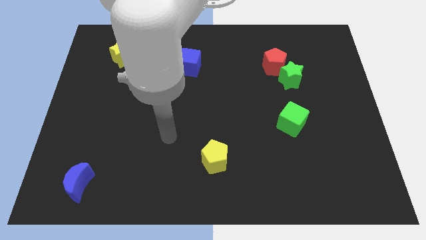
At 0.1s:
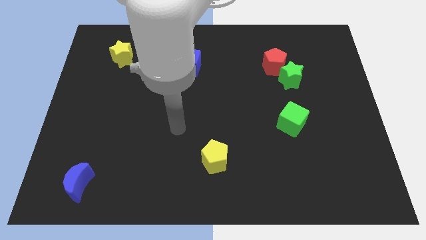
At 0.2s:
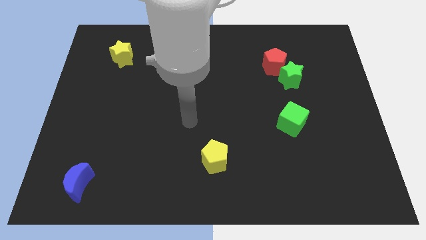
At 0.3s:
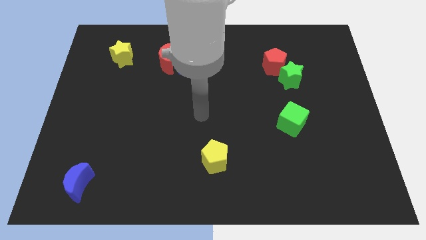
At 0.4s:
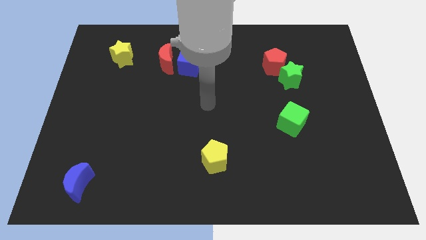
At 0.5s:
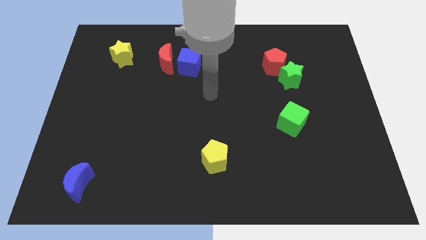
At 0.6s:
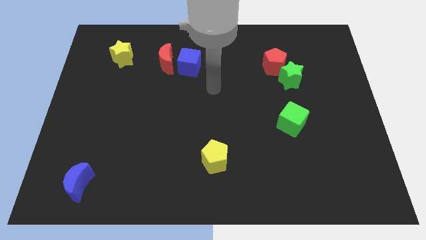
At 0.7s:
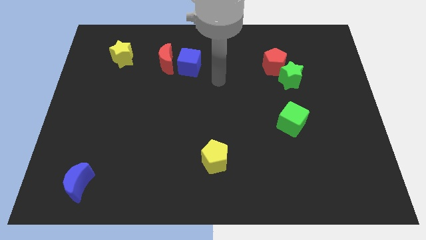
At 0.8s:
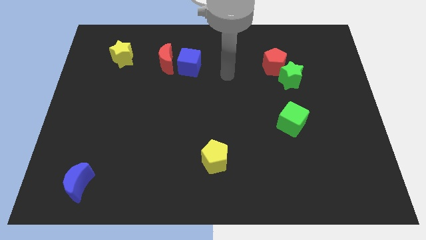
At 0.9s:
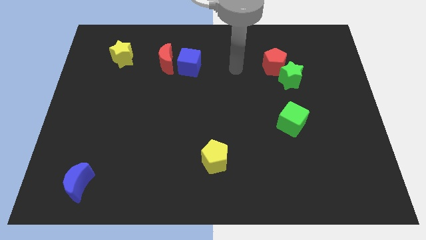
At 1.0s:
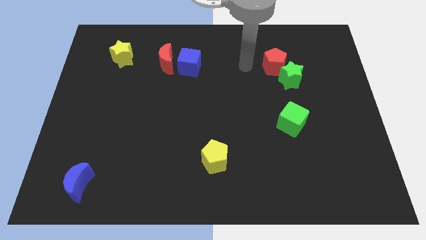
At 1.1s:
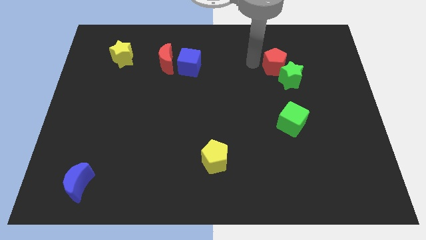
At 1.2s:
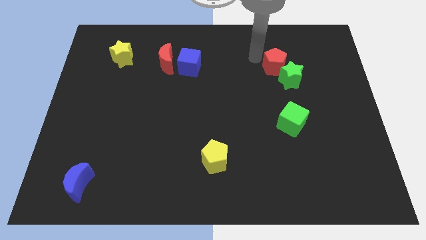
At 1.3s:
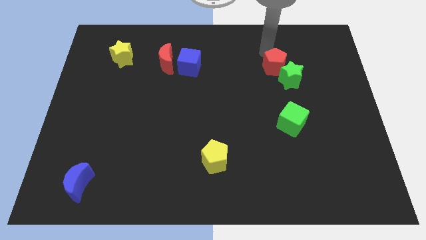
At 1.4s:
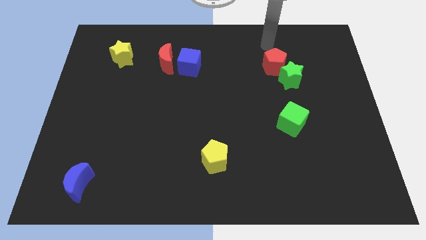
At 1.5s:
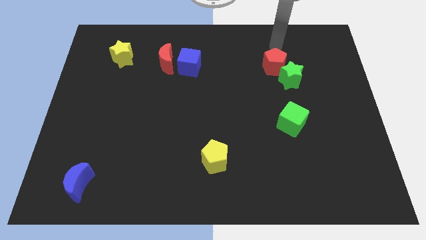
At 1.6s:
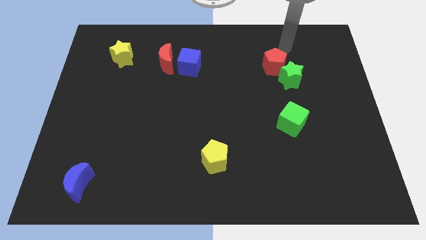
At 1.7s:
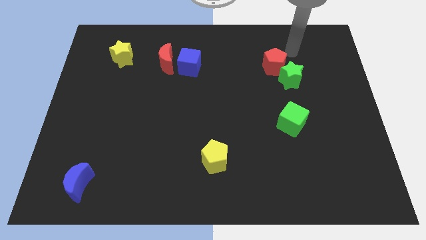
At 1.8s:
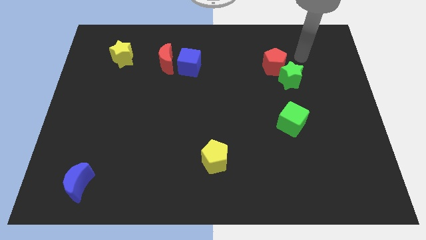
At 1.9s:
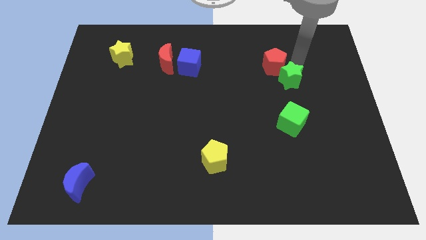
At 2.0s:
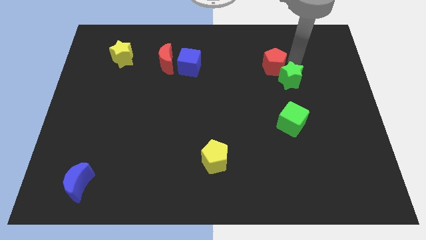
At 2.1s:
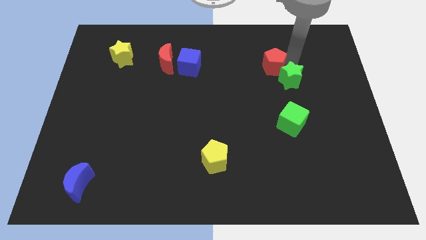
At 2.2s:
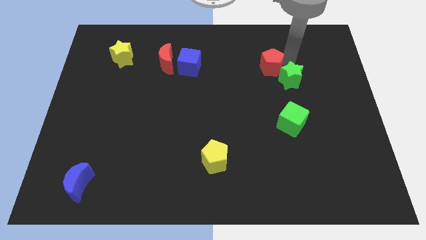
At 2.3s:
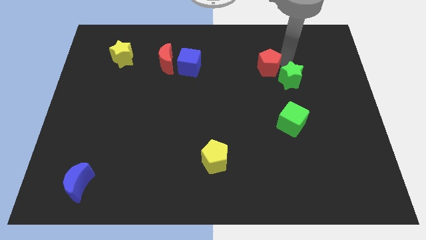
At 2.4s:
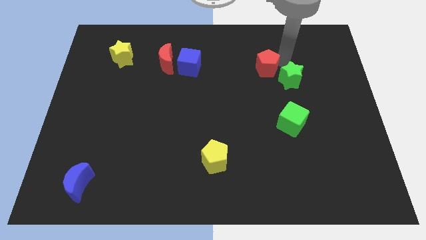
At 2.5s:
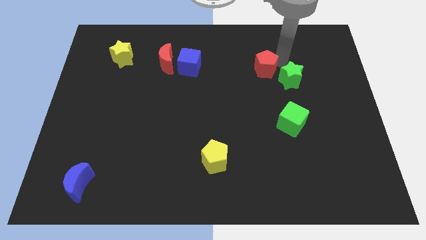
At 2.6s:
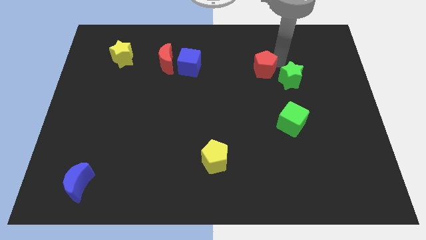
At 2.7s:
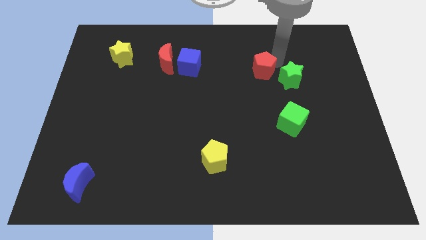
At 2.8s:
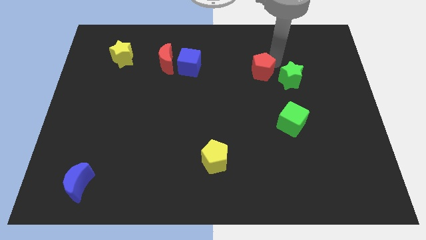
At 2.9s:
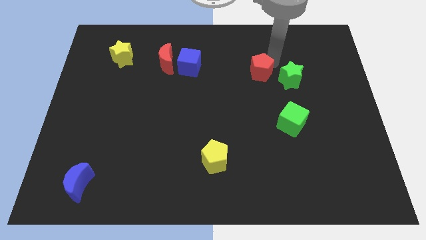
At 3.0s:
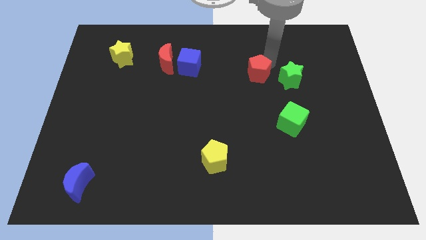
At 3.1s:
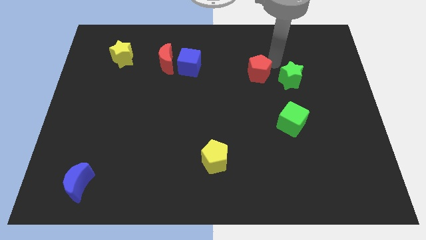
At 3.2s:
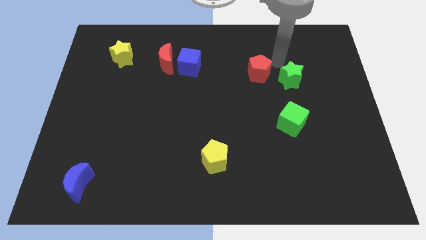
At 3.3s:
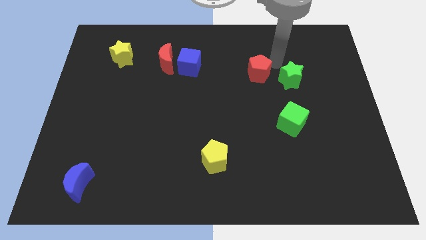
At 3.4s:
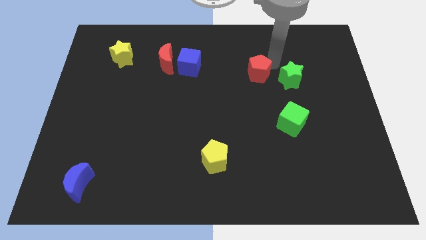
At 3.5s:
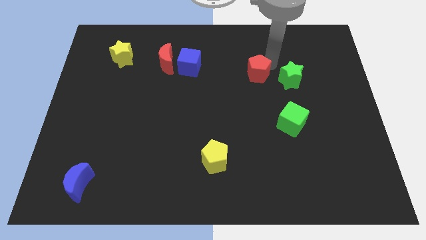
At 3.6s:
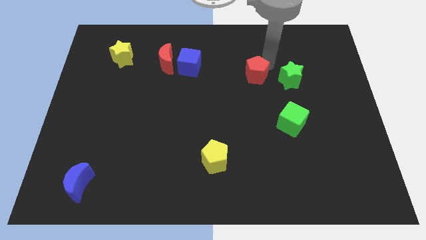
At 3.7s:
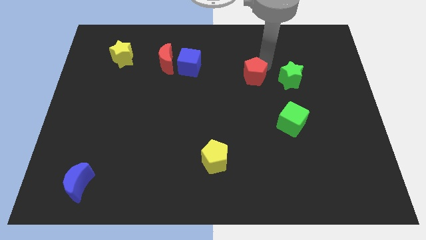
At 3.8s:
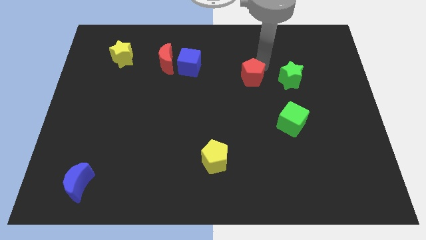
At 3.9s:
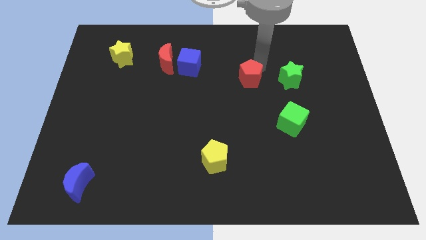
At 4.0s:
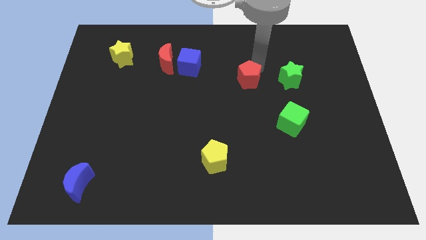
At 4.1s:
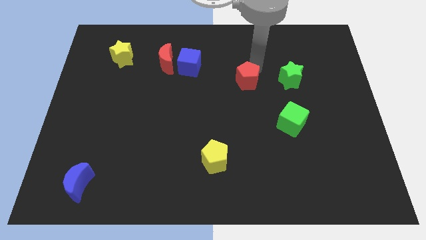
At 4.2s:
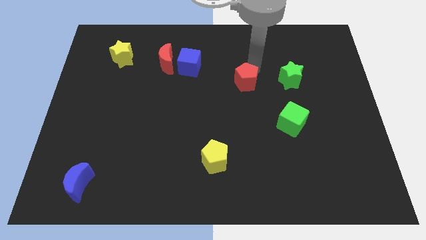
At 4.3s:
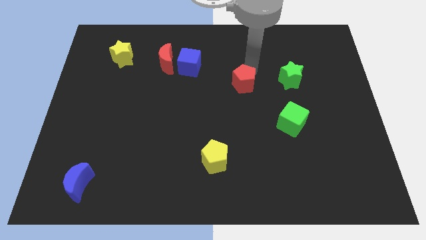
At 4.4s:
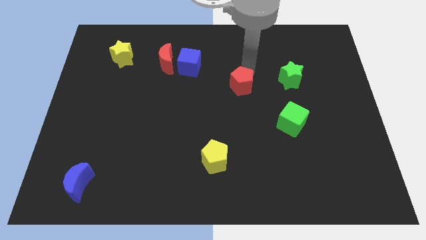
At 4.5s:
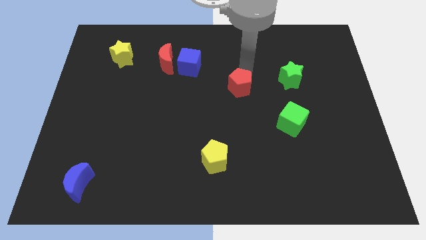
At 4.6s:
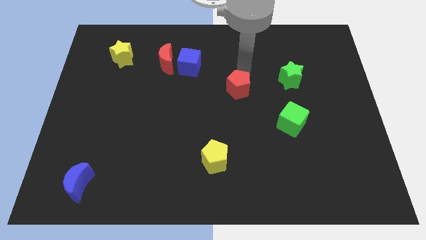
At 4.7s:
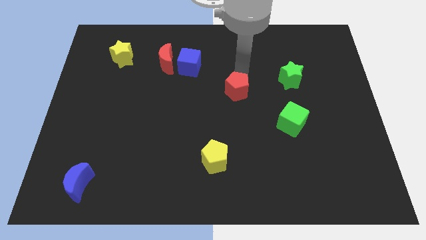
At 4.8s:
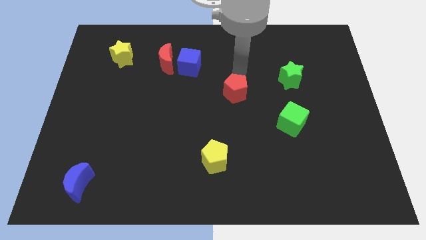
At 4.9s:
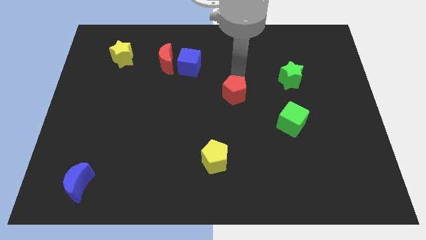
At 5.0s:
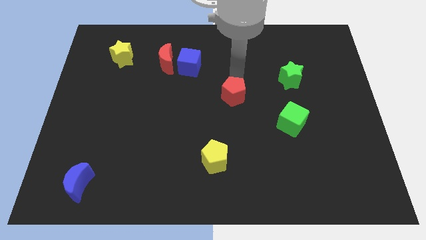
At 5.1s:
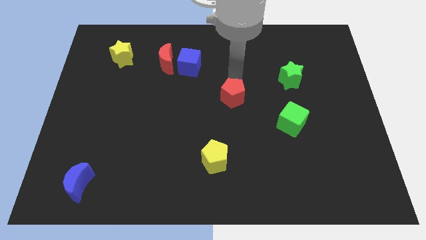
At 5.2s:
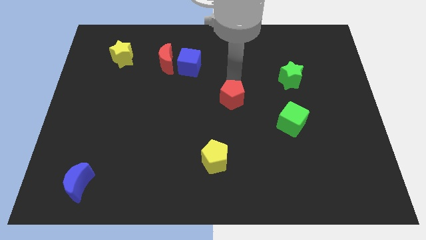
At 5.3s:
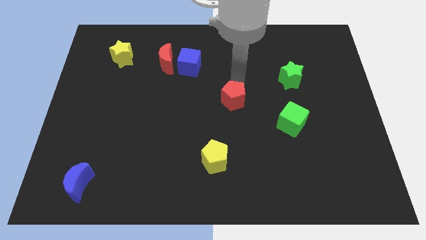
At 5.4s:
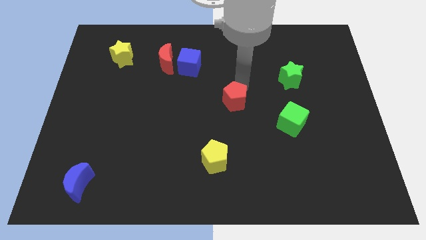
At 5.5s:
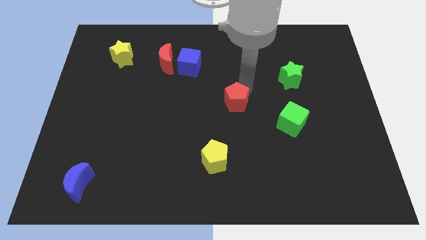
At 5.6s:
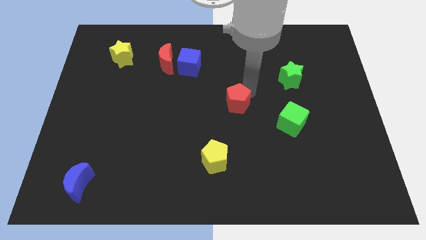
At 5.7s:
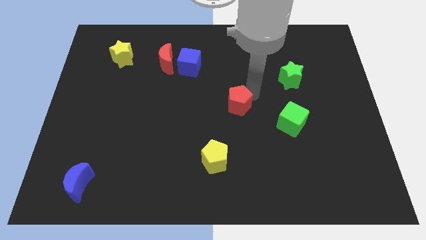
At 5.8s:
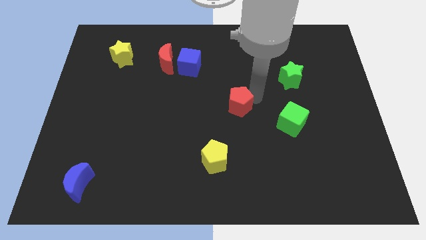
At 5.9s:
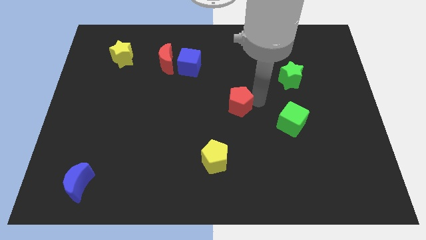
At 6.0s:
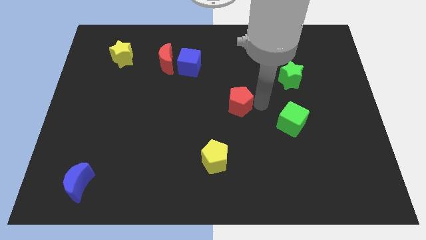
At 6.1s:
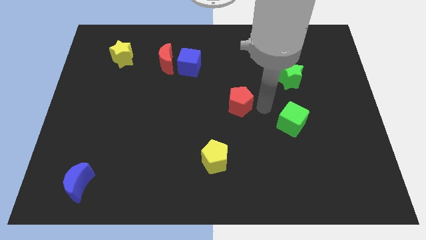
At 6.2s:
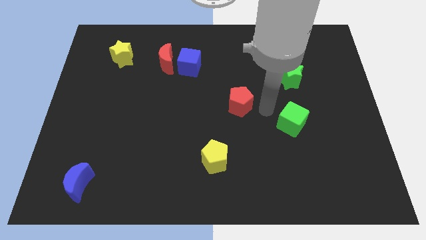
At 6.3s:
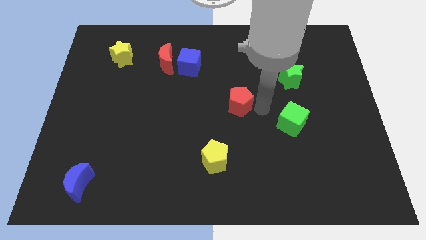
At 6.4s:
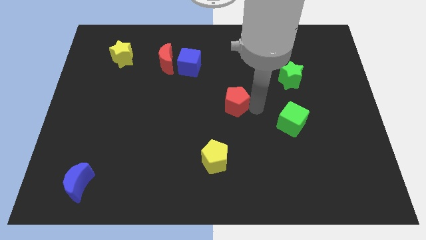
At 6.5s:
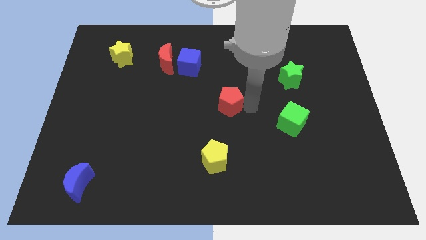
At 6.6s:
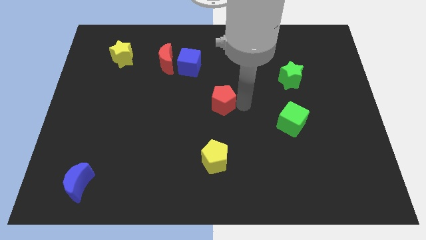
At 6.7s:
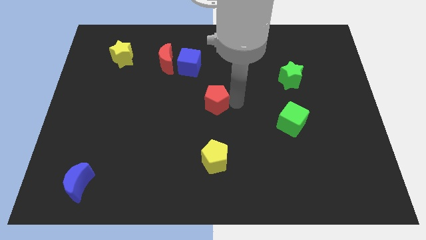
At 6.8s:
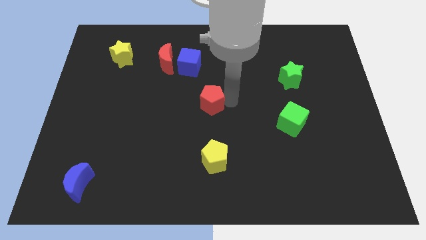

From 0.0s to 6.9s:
push the red pentagon down and to the left diagonally

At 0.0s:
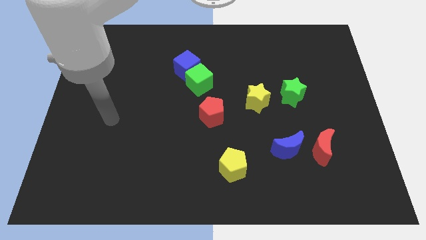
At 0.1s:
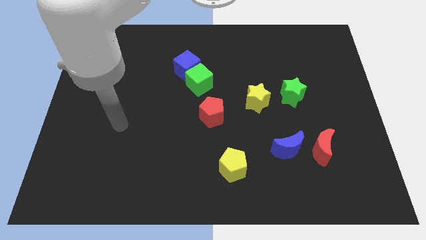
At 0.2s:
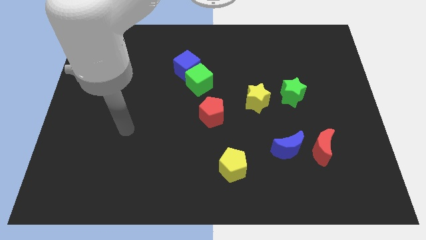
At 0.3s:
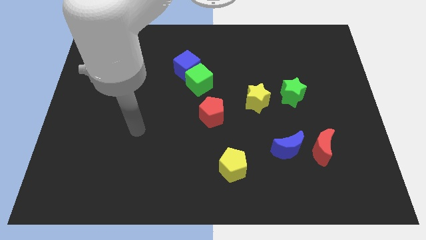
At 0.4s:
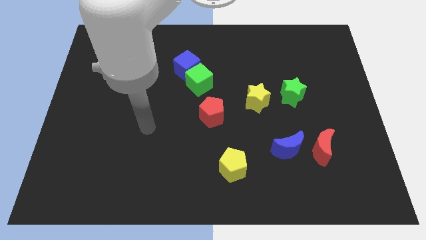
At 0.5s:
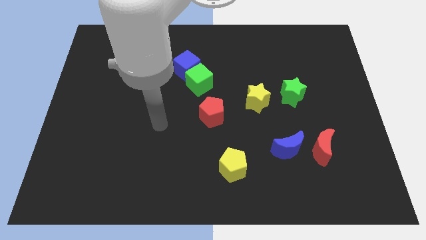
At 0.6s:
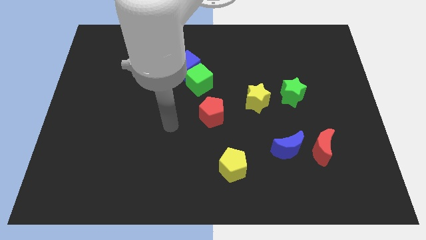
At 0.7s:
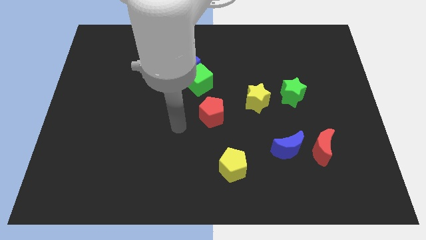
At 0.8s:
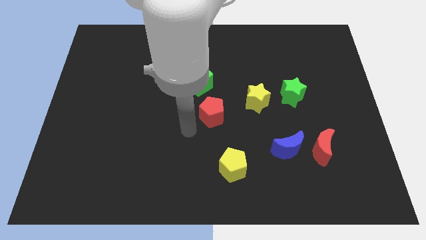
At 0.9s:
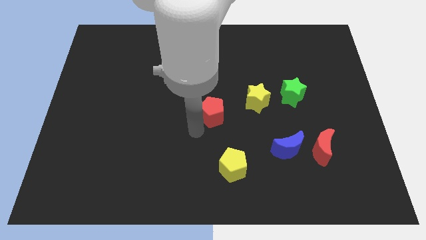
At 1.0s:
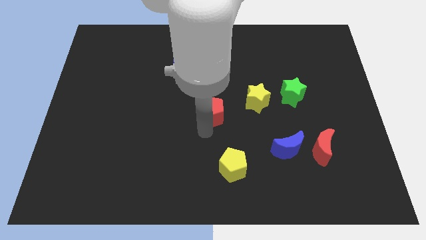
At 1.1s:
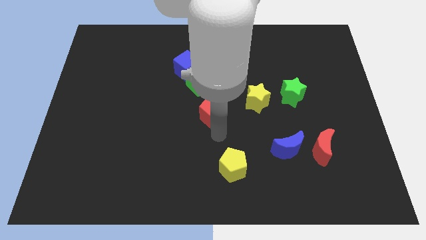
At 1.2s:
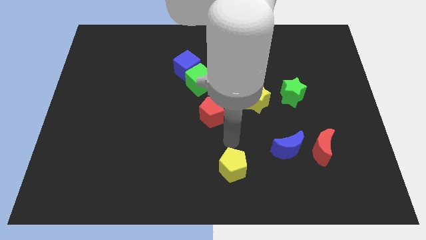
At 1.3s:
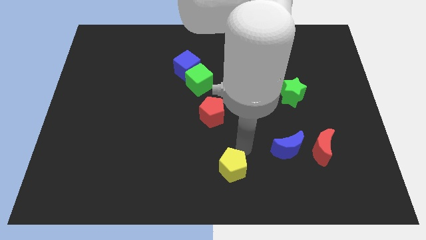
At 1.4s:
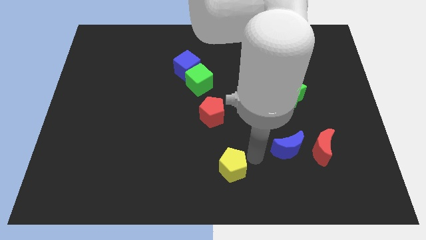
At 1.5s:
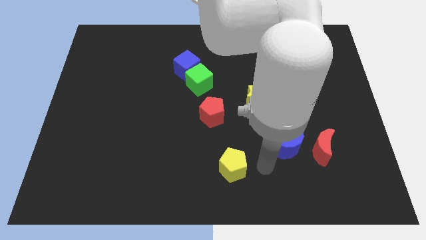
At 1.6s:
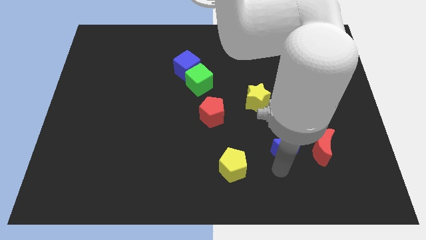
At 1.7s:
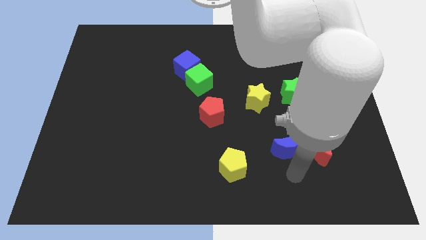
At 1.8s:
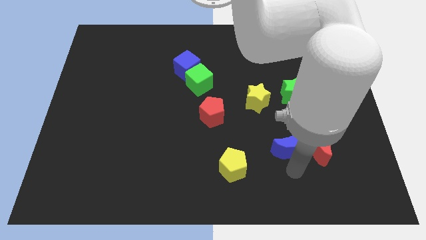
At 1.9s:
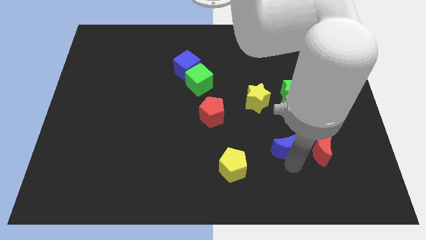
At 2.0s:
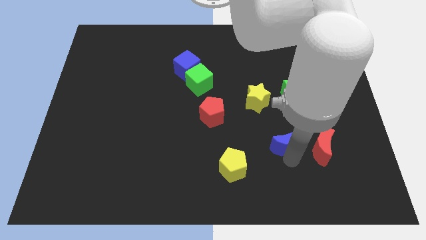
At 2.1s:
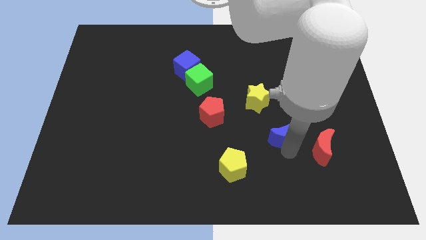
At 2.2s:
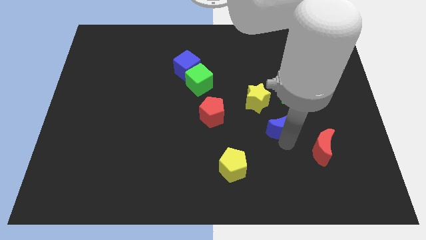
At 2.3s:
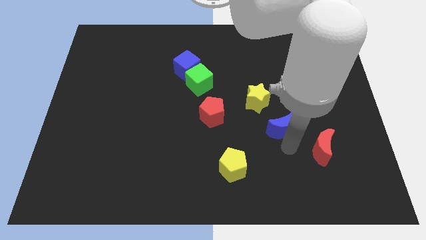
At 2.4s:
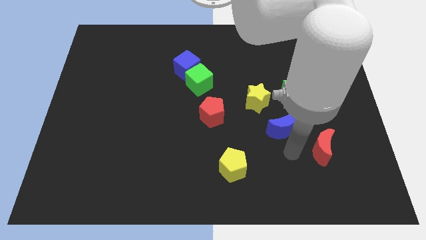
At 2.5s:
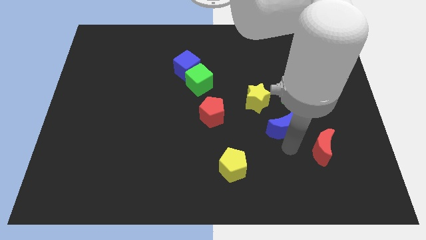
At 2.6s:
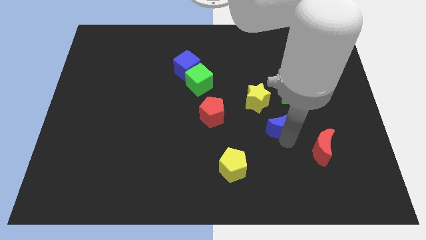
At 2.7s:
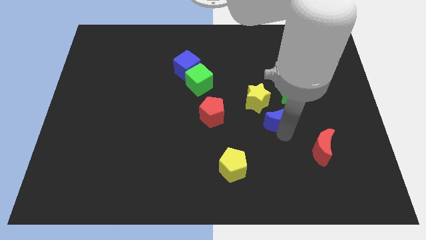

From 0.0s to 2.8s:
slightly slide the blue moon upwards
